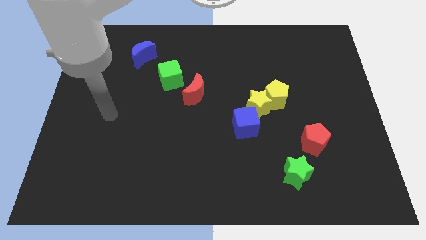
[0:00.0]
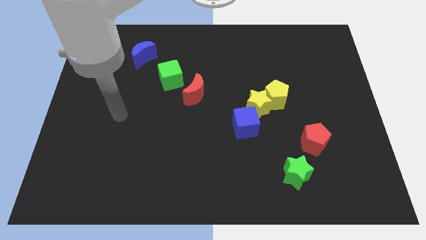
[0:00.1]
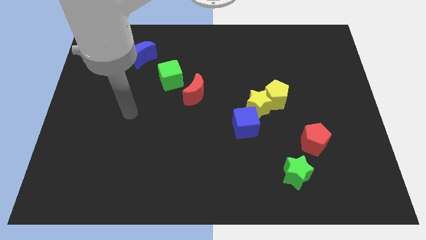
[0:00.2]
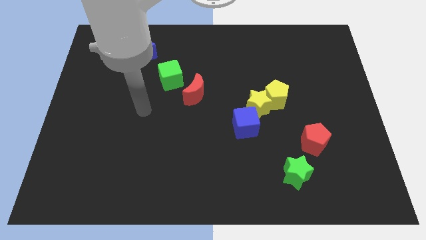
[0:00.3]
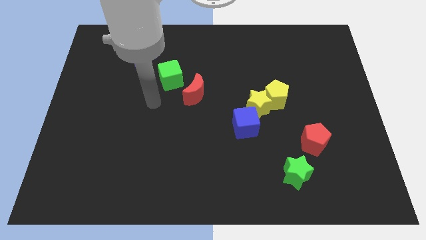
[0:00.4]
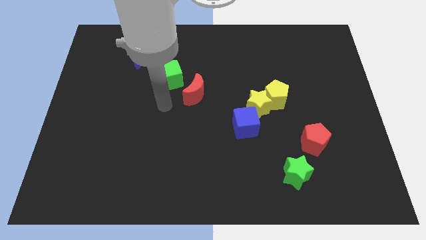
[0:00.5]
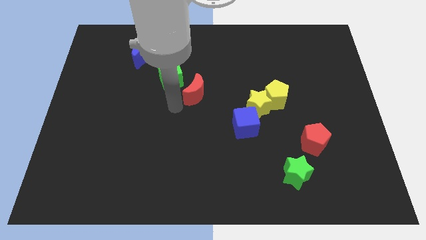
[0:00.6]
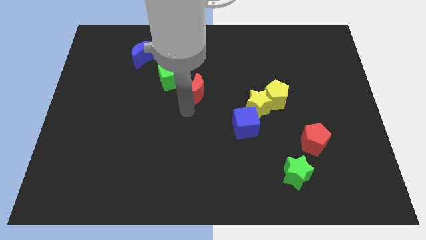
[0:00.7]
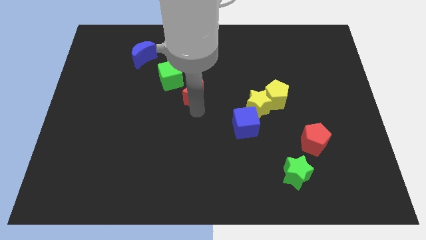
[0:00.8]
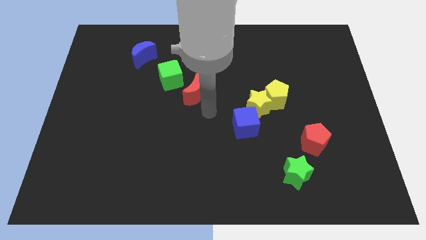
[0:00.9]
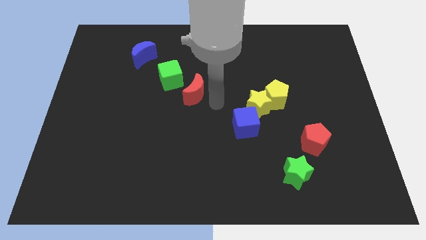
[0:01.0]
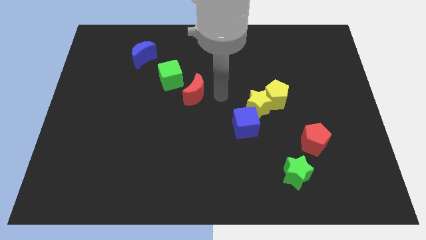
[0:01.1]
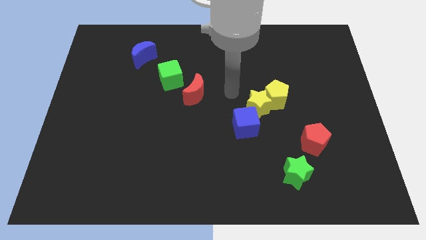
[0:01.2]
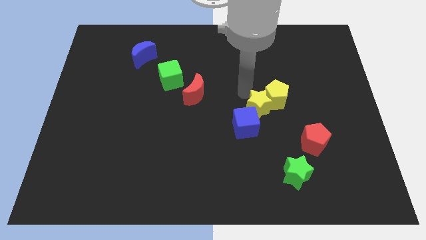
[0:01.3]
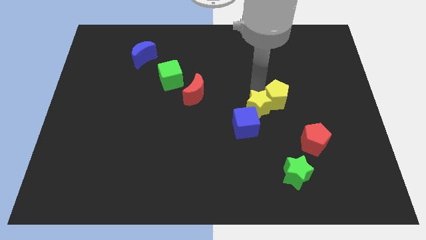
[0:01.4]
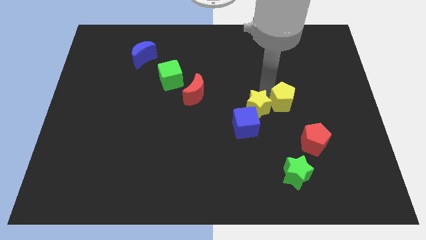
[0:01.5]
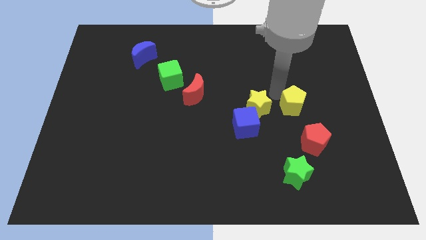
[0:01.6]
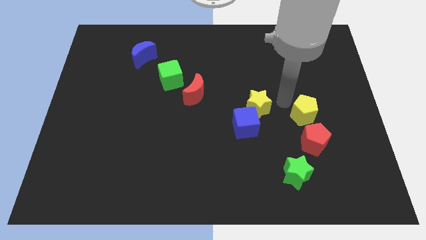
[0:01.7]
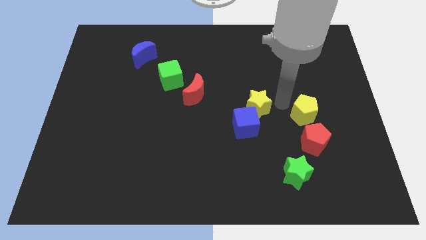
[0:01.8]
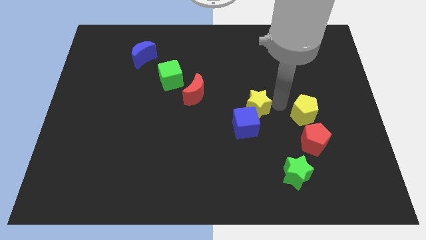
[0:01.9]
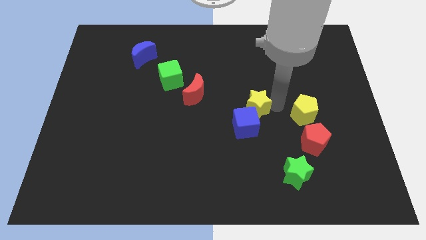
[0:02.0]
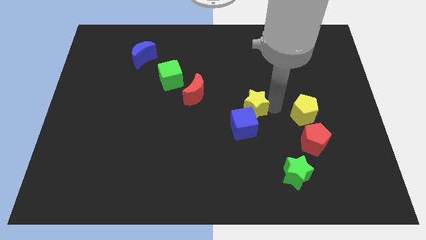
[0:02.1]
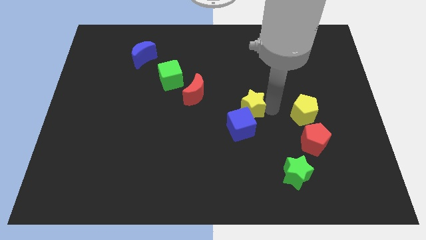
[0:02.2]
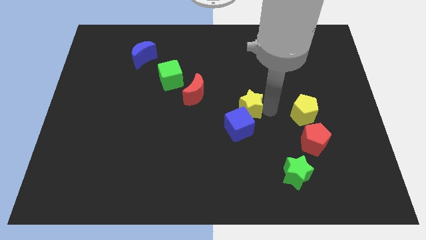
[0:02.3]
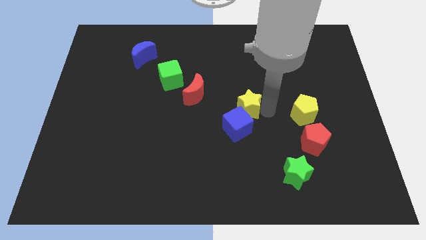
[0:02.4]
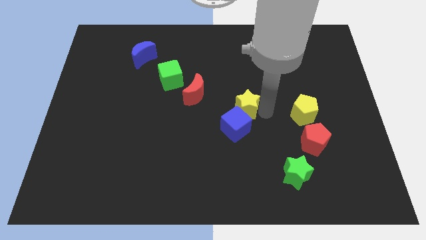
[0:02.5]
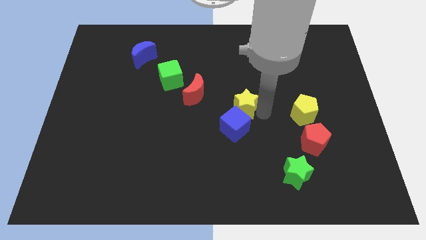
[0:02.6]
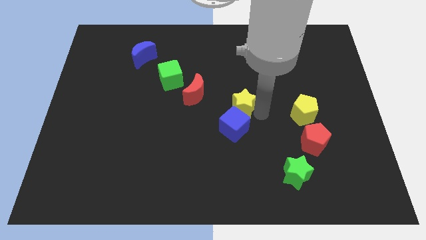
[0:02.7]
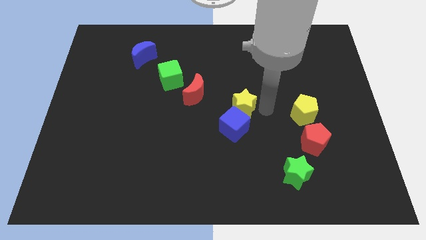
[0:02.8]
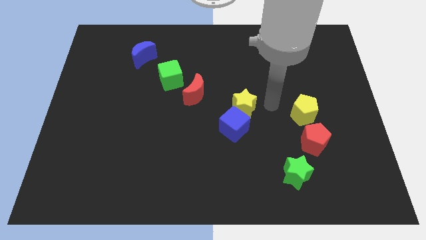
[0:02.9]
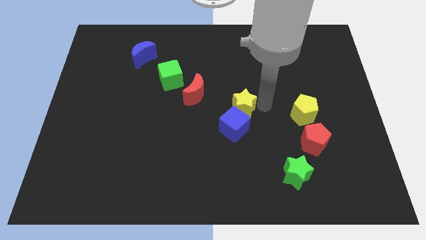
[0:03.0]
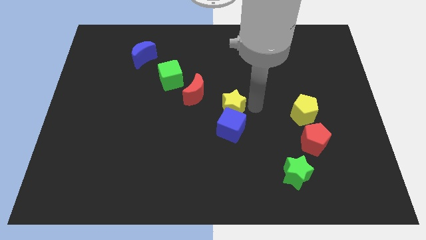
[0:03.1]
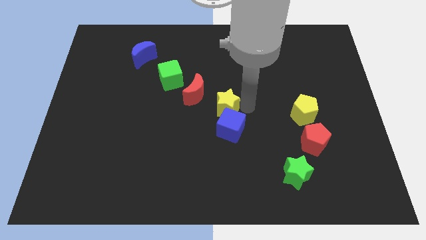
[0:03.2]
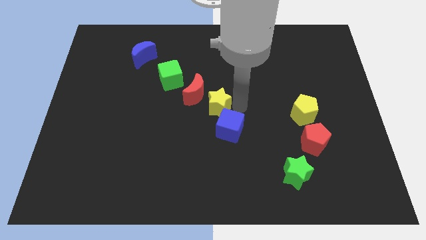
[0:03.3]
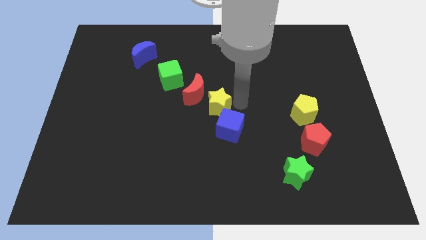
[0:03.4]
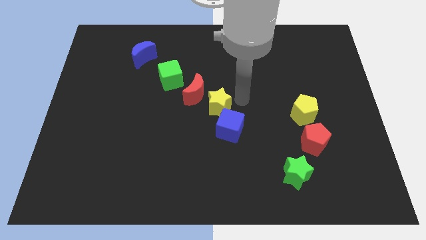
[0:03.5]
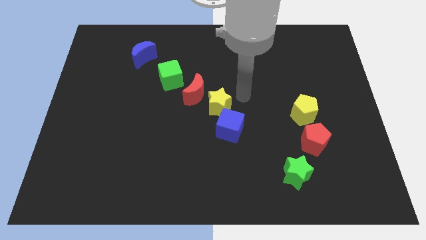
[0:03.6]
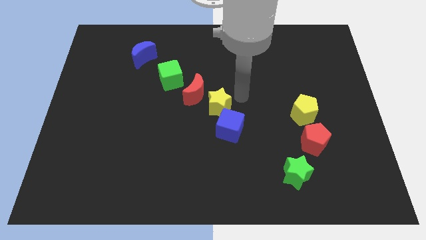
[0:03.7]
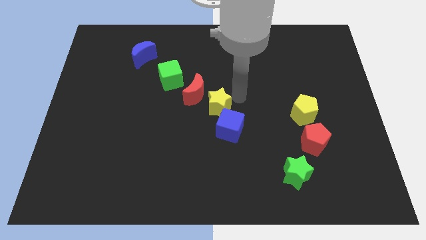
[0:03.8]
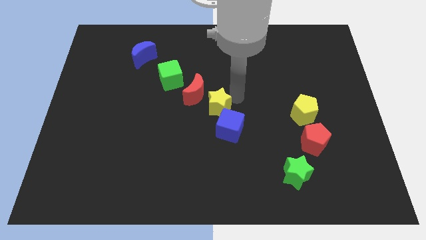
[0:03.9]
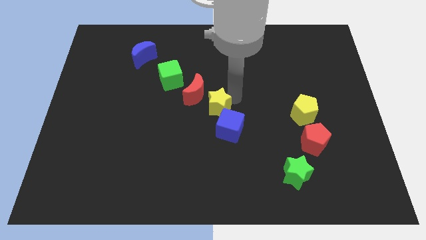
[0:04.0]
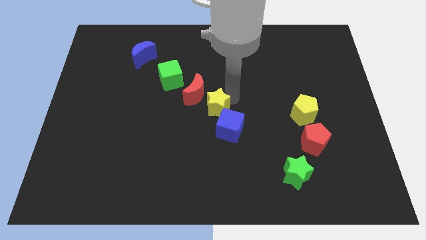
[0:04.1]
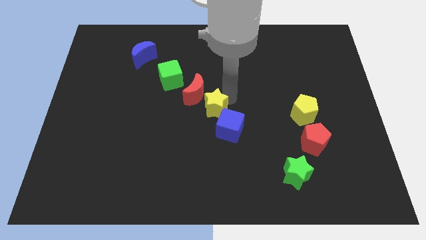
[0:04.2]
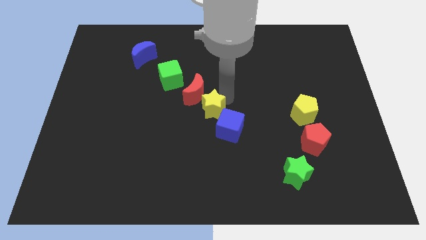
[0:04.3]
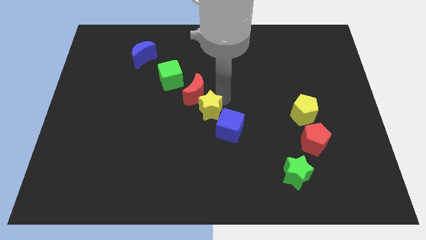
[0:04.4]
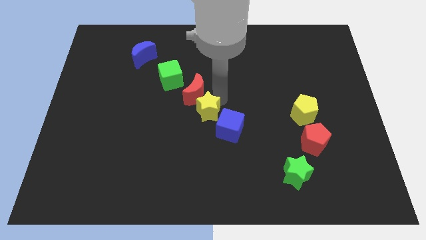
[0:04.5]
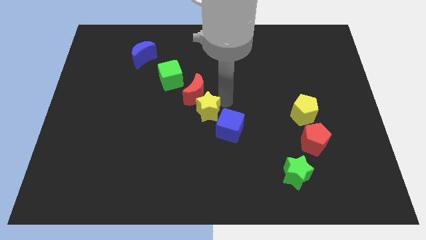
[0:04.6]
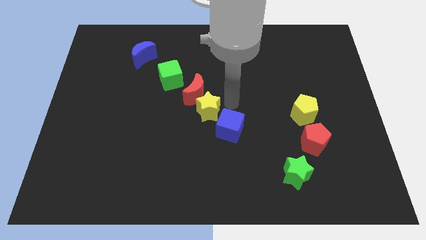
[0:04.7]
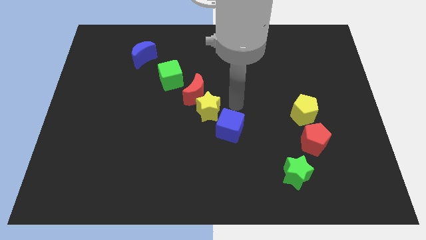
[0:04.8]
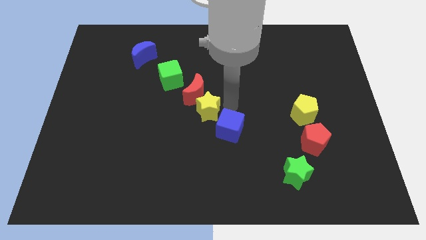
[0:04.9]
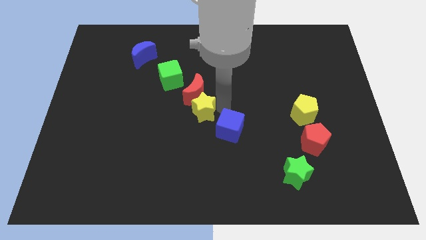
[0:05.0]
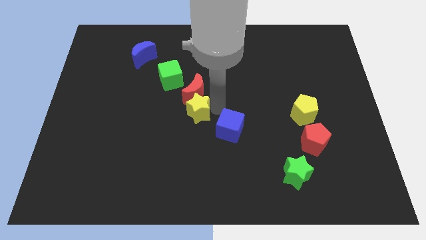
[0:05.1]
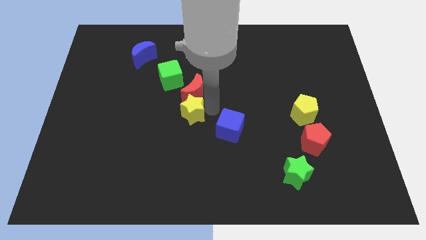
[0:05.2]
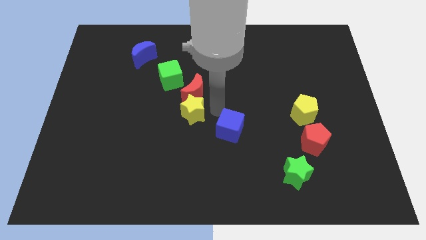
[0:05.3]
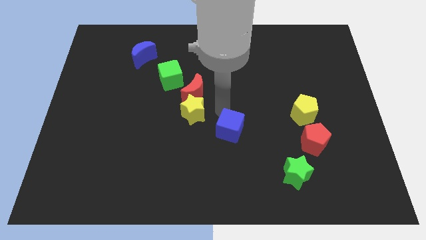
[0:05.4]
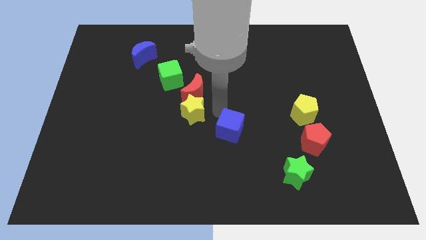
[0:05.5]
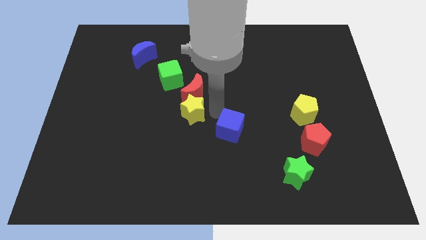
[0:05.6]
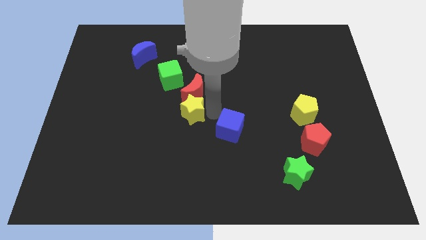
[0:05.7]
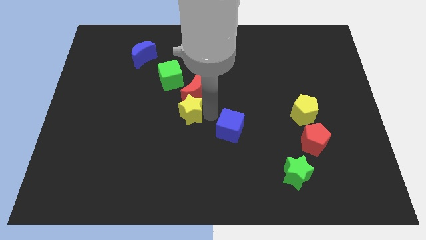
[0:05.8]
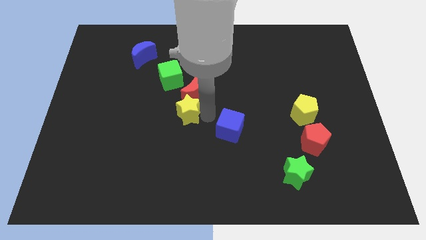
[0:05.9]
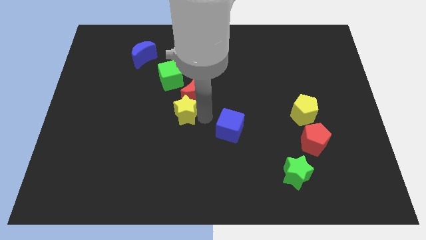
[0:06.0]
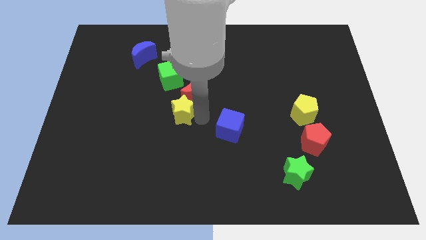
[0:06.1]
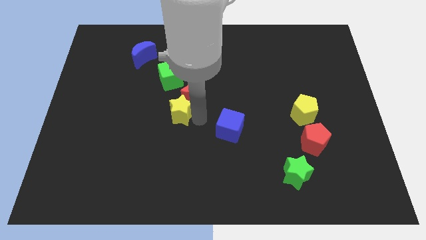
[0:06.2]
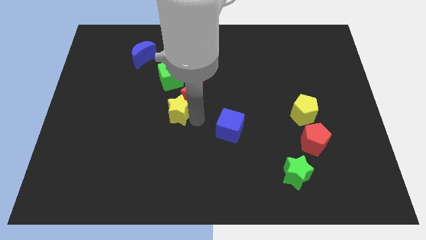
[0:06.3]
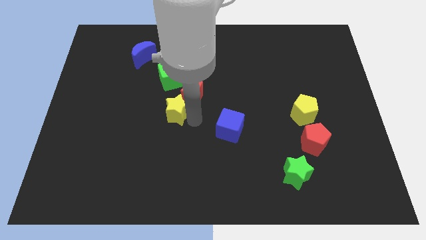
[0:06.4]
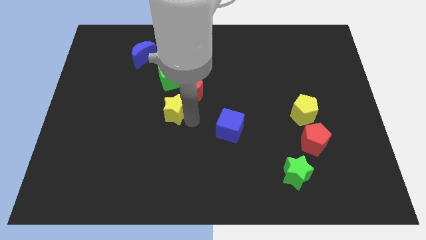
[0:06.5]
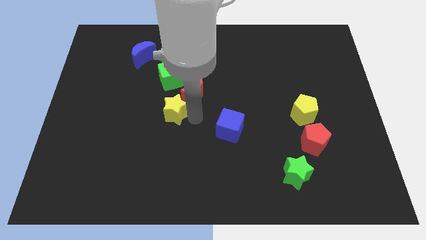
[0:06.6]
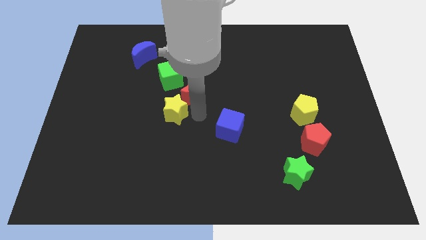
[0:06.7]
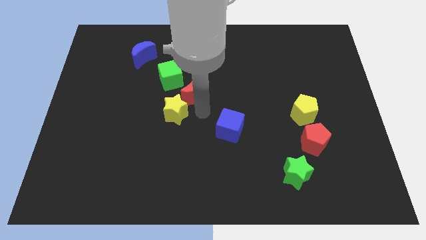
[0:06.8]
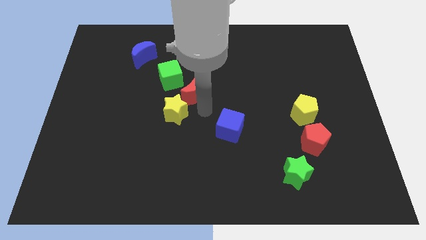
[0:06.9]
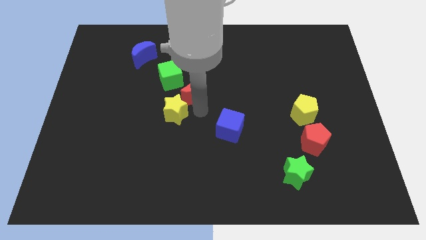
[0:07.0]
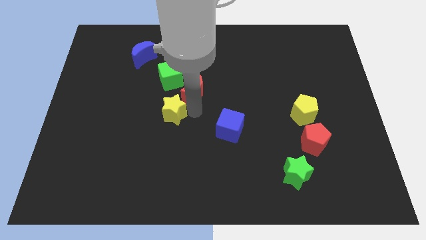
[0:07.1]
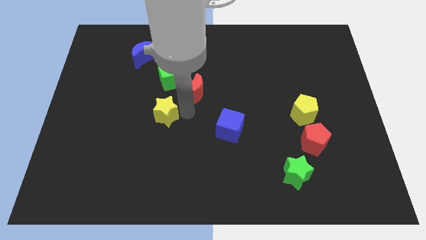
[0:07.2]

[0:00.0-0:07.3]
slide the yellow star left

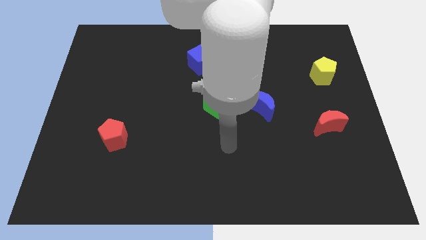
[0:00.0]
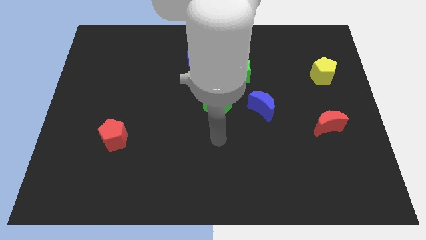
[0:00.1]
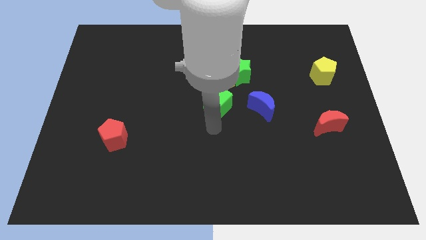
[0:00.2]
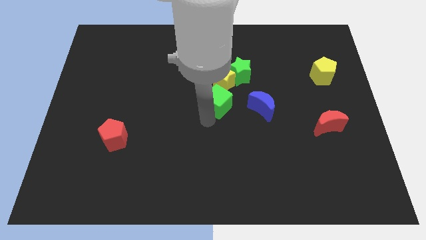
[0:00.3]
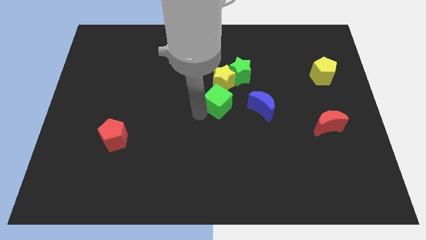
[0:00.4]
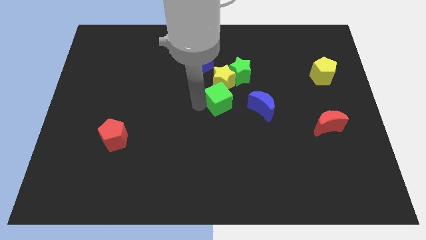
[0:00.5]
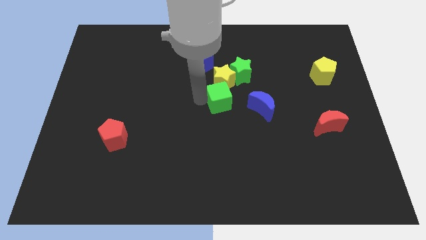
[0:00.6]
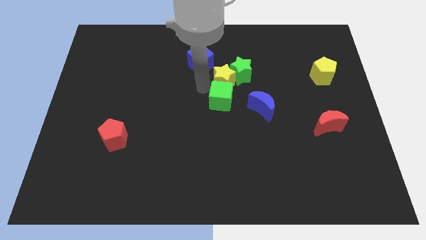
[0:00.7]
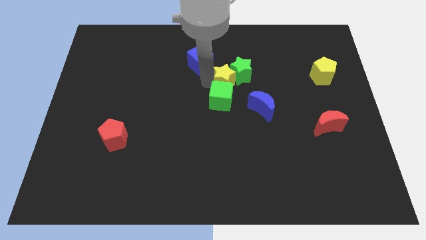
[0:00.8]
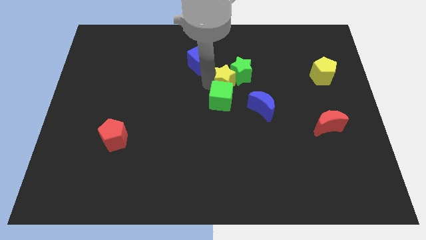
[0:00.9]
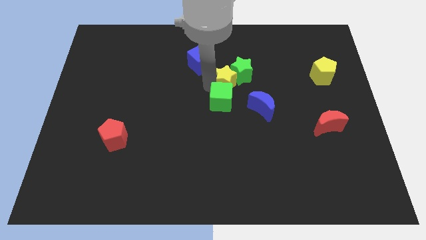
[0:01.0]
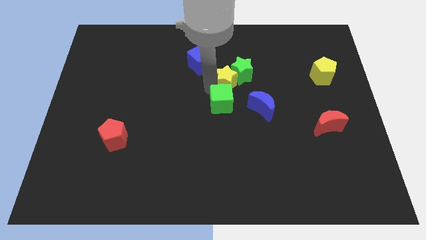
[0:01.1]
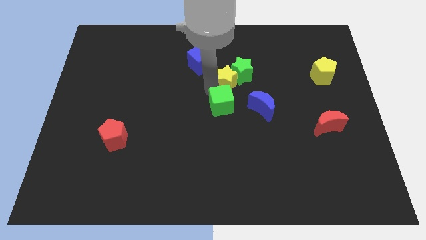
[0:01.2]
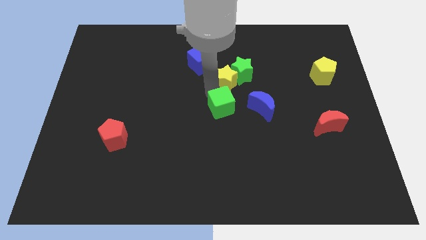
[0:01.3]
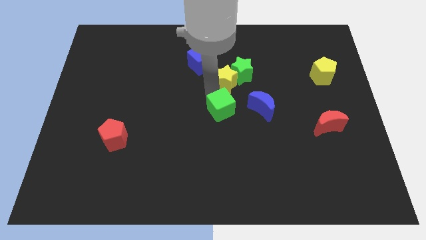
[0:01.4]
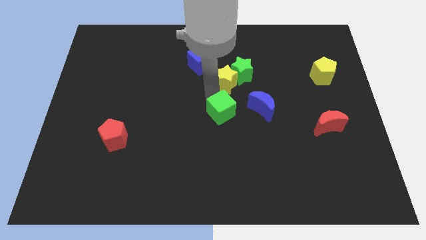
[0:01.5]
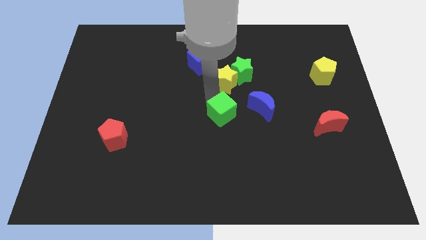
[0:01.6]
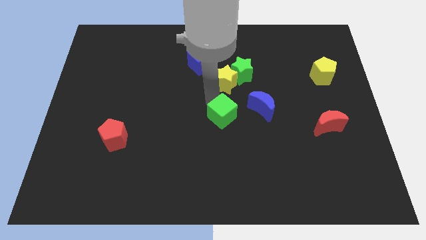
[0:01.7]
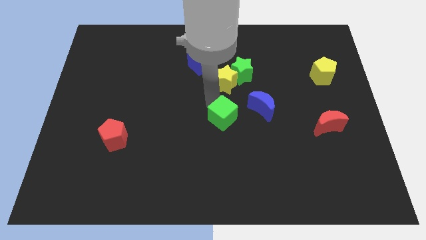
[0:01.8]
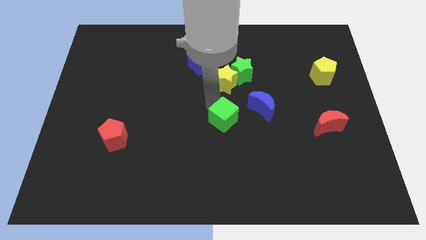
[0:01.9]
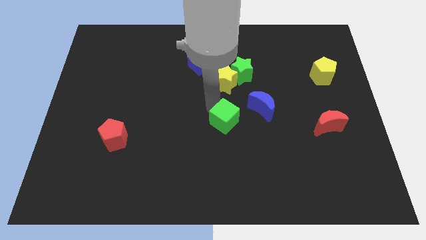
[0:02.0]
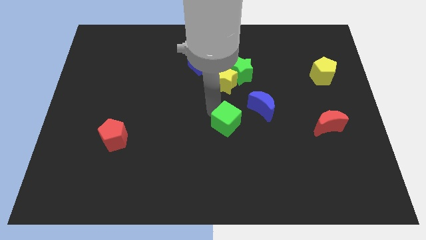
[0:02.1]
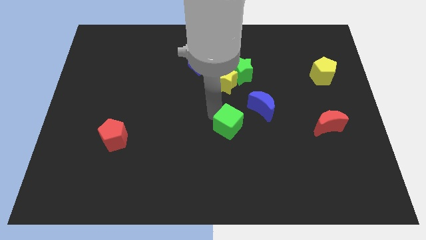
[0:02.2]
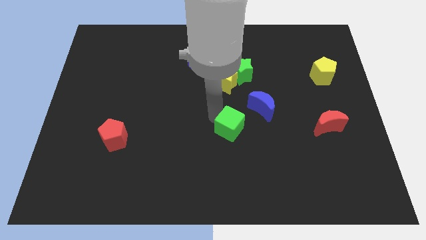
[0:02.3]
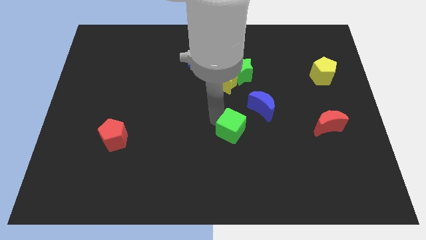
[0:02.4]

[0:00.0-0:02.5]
slightly slide the green cube diagonally downwards and to the right
